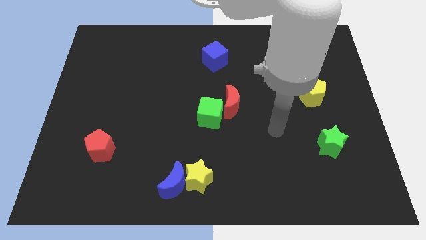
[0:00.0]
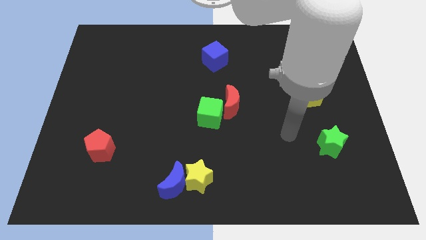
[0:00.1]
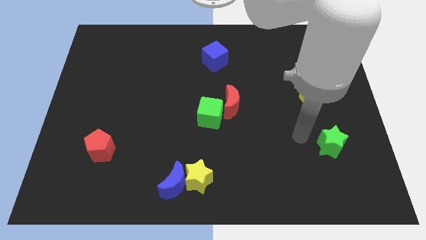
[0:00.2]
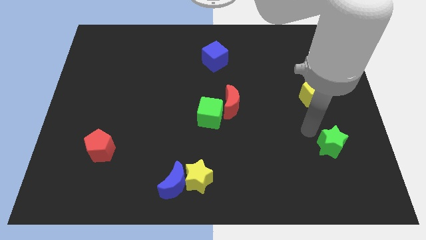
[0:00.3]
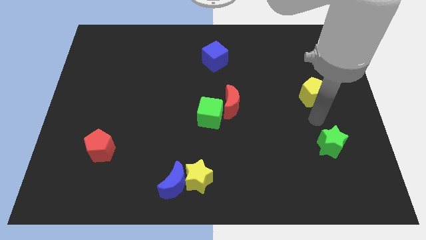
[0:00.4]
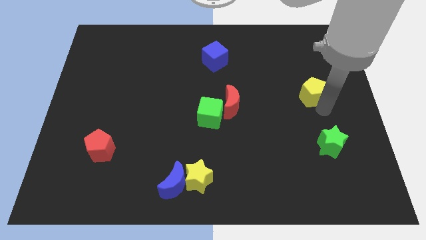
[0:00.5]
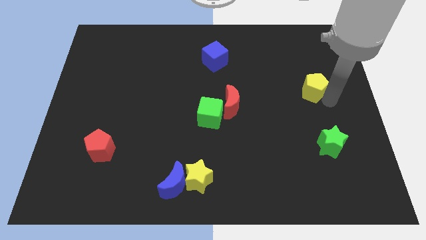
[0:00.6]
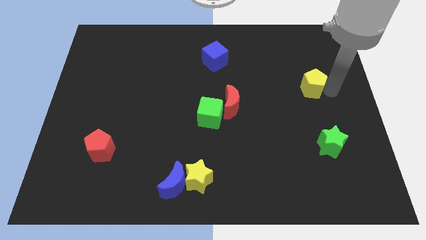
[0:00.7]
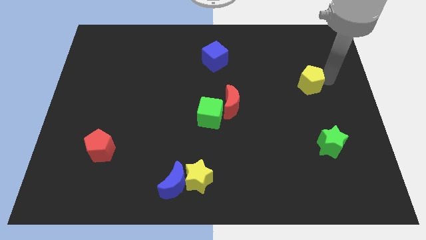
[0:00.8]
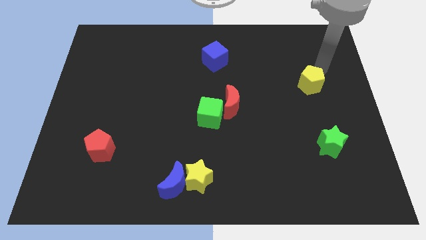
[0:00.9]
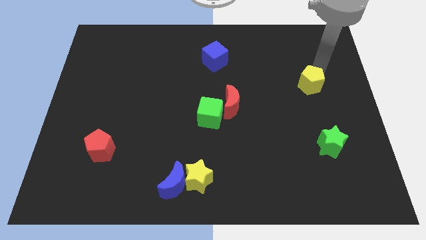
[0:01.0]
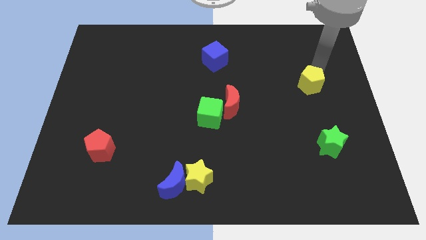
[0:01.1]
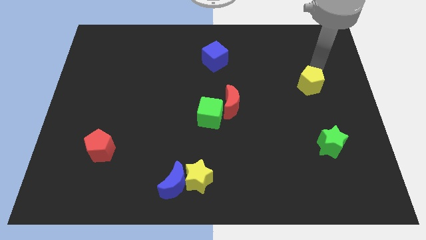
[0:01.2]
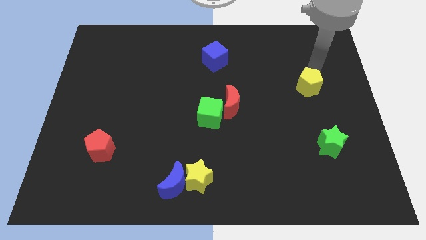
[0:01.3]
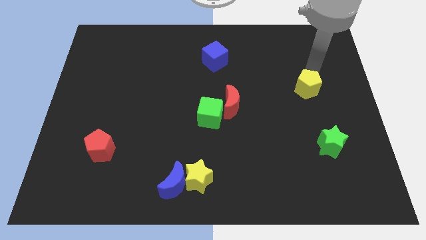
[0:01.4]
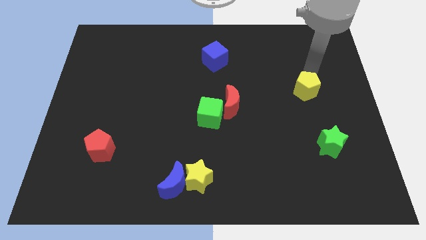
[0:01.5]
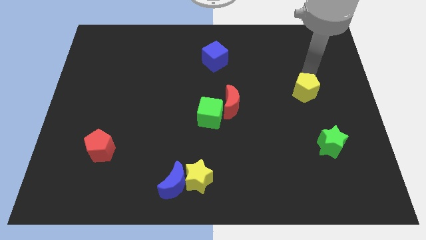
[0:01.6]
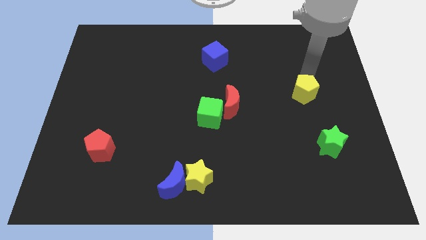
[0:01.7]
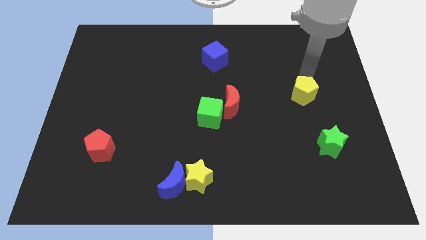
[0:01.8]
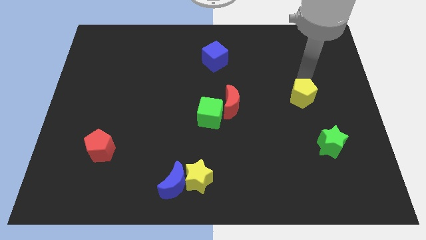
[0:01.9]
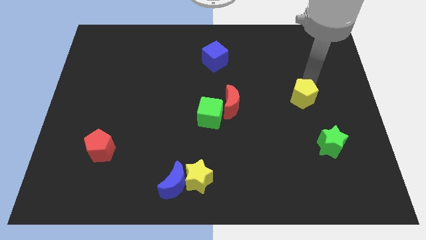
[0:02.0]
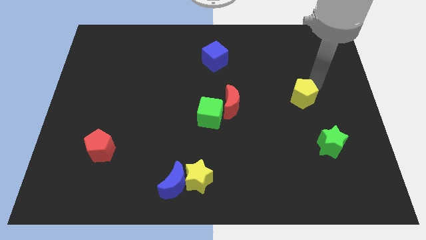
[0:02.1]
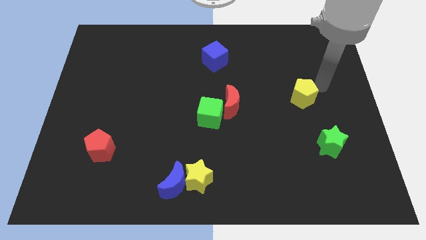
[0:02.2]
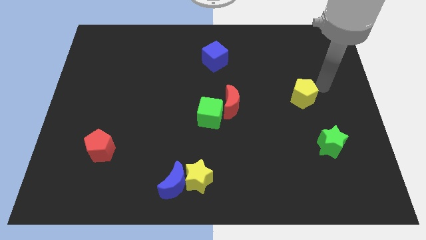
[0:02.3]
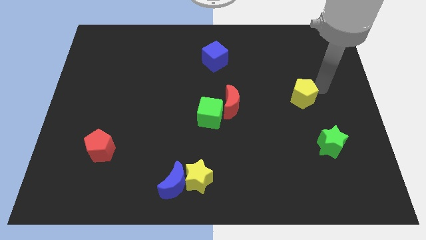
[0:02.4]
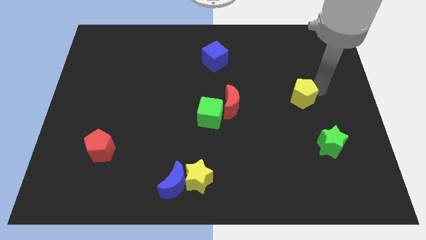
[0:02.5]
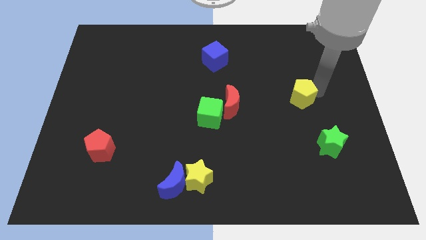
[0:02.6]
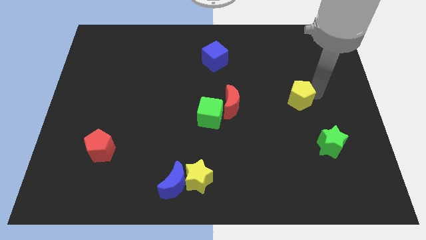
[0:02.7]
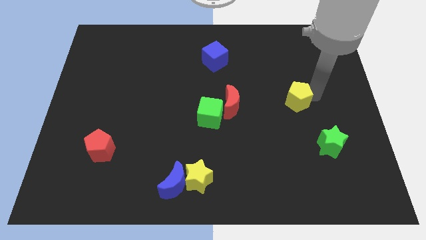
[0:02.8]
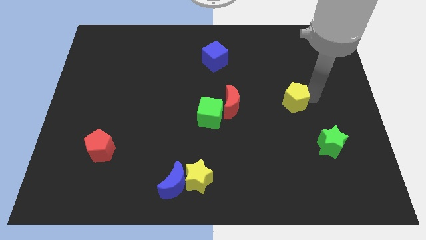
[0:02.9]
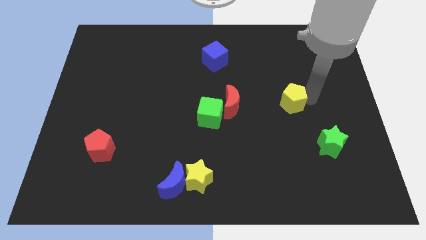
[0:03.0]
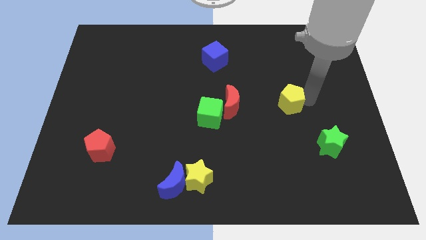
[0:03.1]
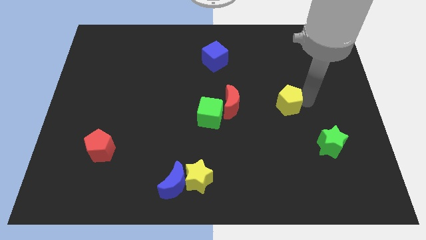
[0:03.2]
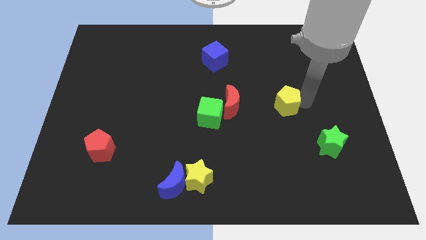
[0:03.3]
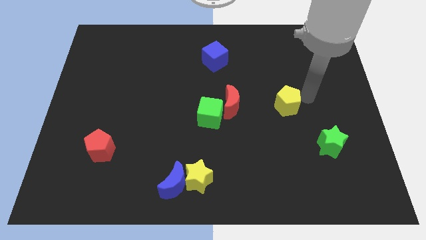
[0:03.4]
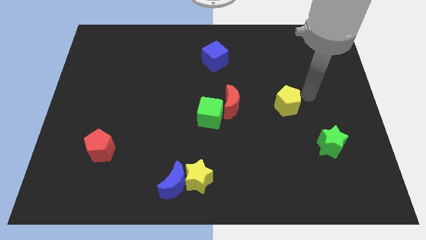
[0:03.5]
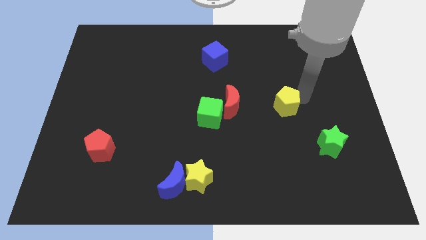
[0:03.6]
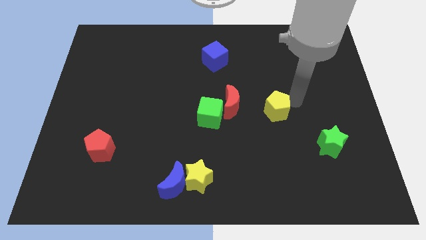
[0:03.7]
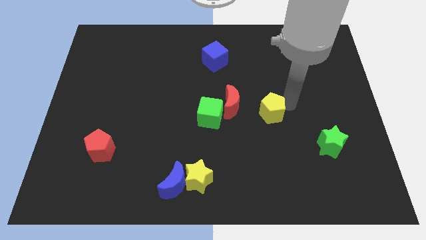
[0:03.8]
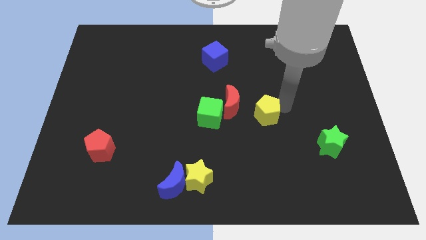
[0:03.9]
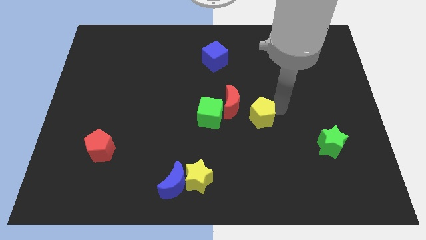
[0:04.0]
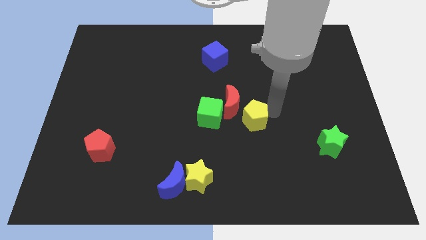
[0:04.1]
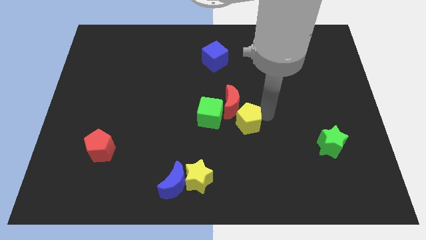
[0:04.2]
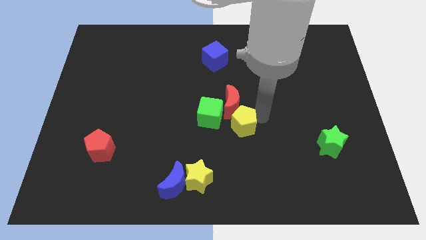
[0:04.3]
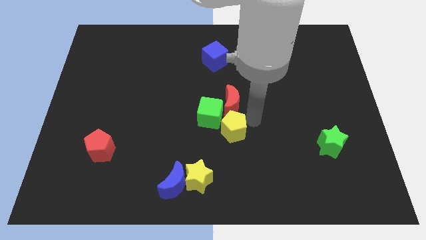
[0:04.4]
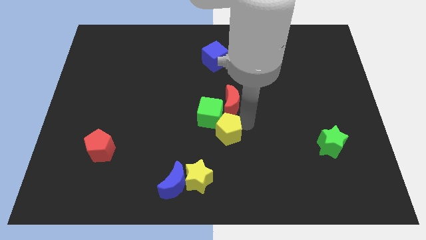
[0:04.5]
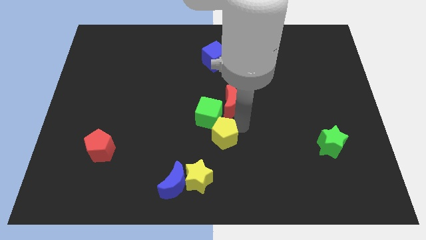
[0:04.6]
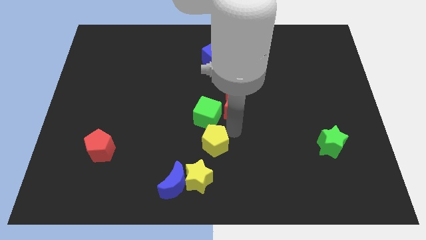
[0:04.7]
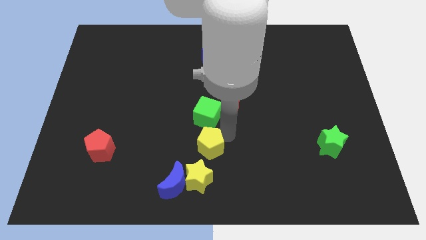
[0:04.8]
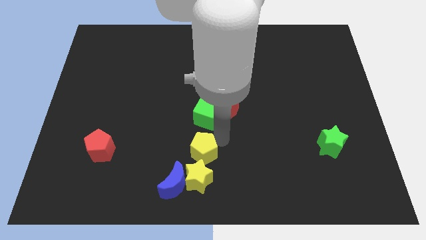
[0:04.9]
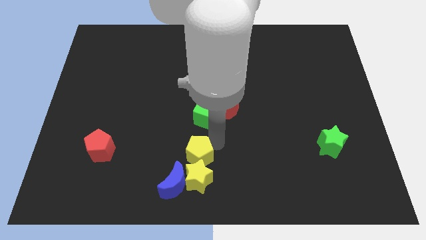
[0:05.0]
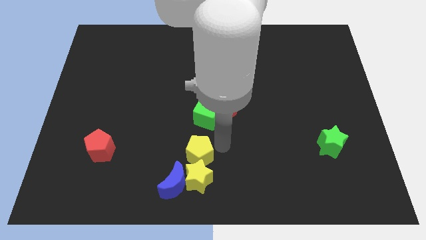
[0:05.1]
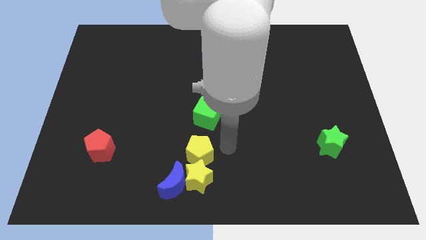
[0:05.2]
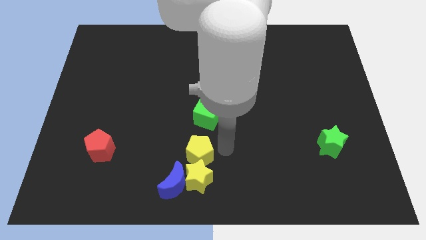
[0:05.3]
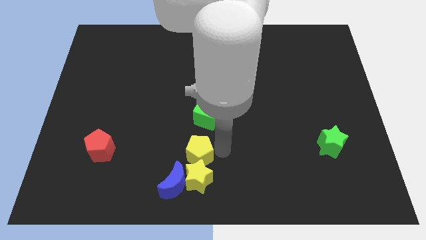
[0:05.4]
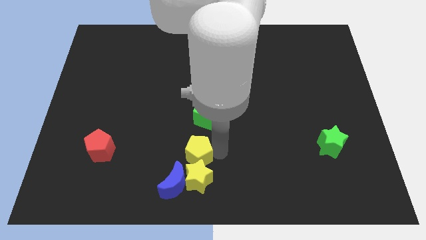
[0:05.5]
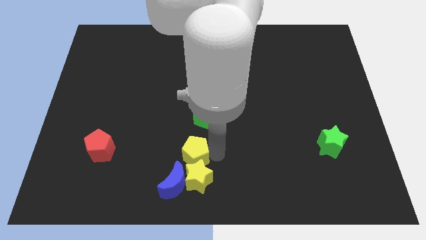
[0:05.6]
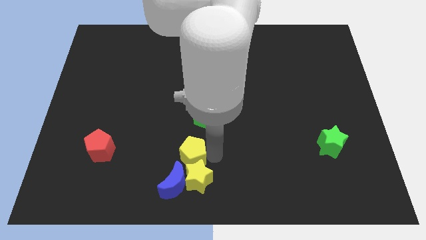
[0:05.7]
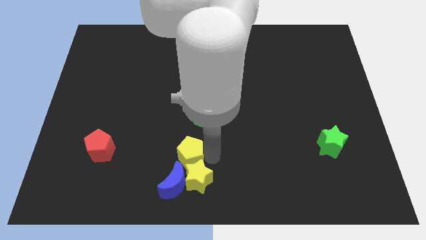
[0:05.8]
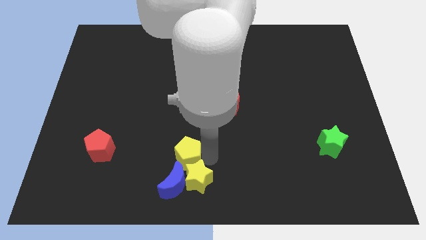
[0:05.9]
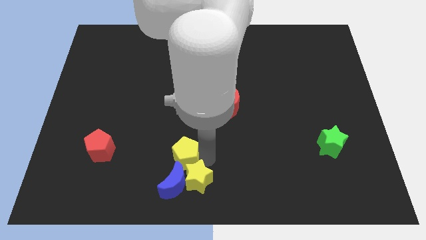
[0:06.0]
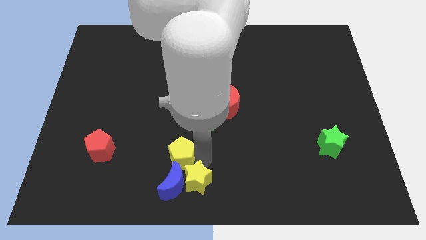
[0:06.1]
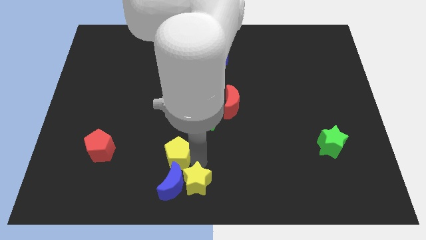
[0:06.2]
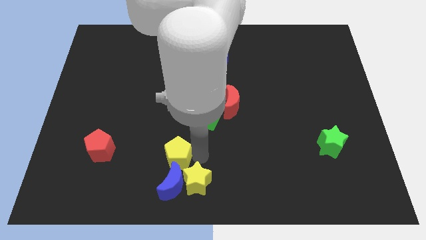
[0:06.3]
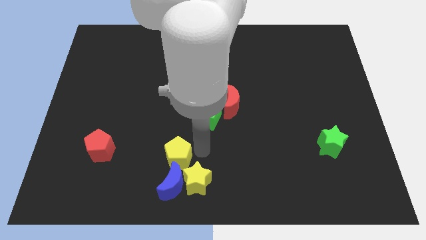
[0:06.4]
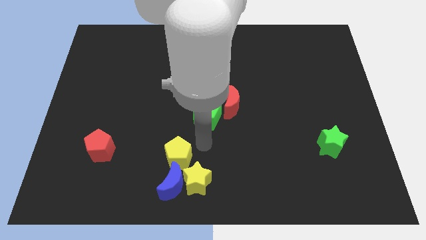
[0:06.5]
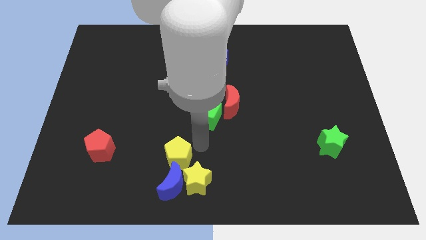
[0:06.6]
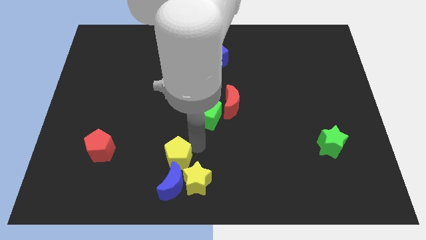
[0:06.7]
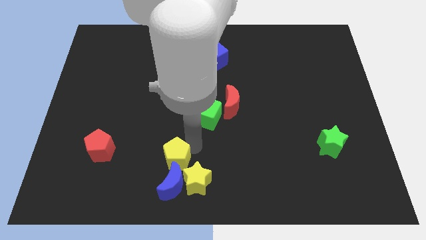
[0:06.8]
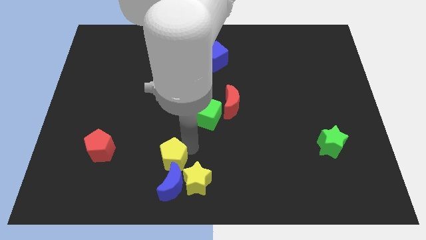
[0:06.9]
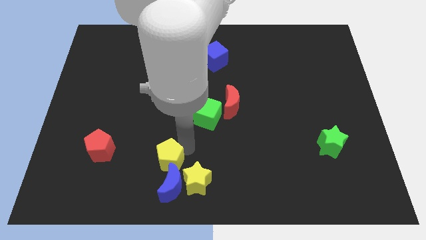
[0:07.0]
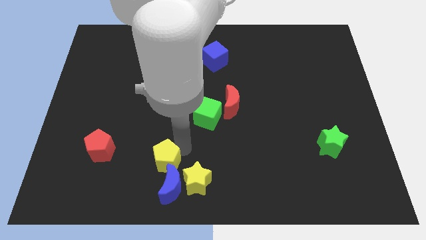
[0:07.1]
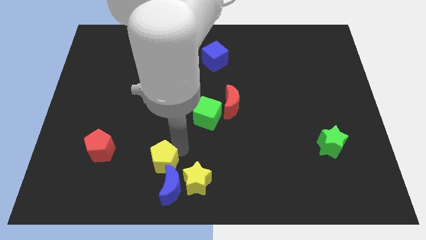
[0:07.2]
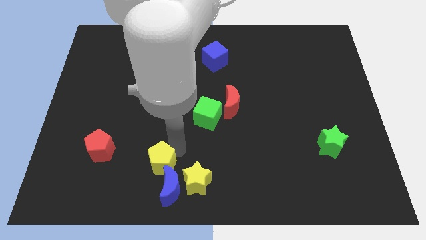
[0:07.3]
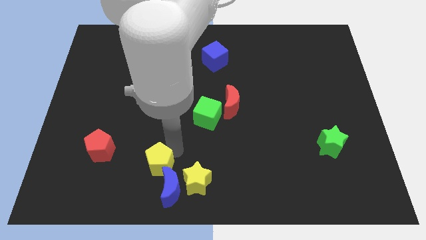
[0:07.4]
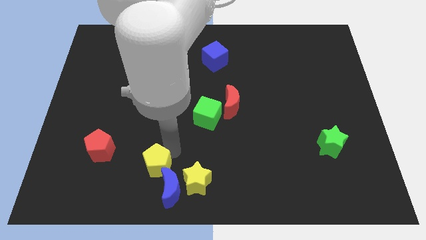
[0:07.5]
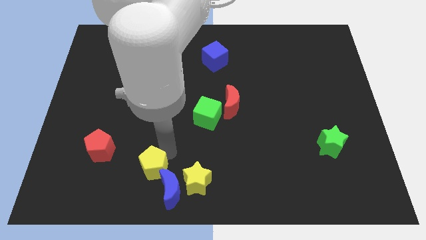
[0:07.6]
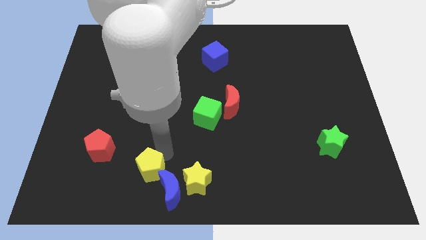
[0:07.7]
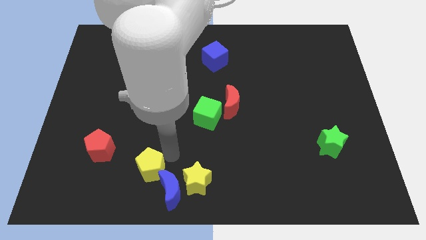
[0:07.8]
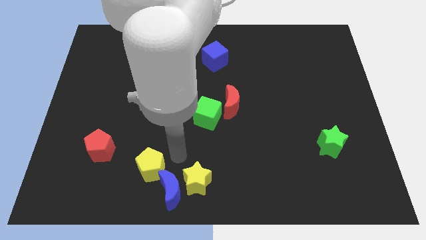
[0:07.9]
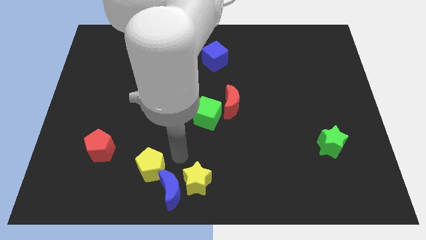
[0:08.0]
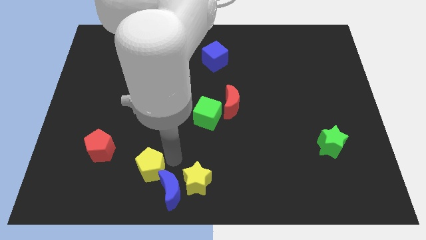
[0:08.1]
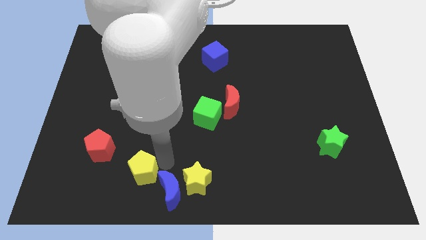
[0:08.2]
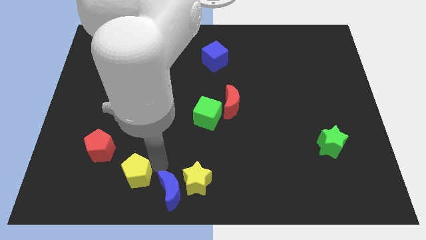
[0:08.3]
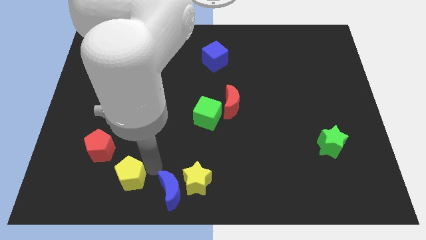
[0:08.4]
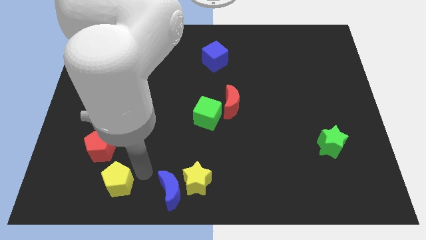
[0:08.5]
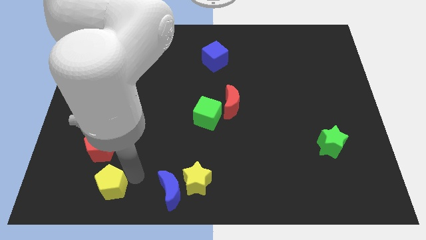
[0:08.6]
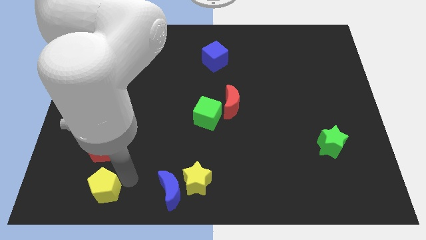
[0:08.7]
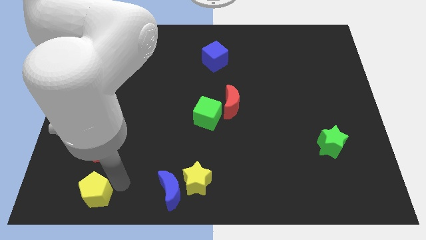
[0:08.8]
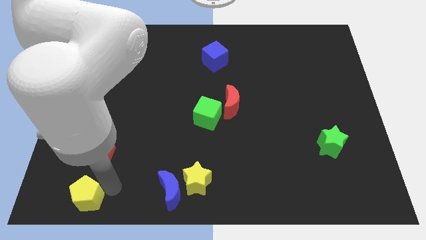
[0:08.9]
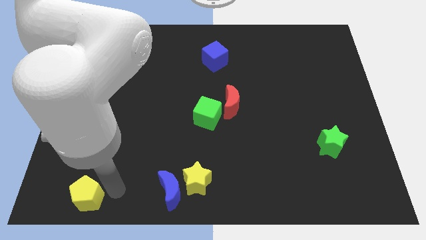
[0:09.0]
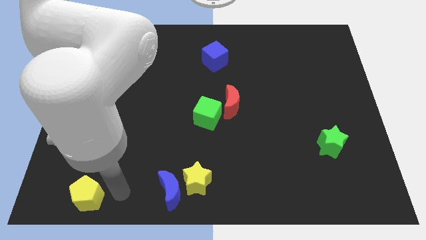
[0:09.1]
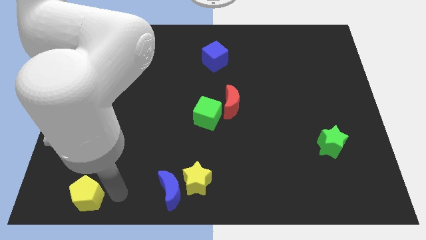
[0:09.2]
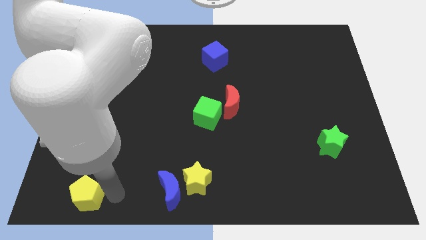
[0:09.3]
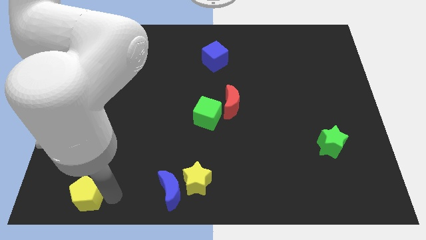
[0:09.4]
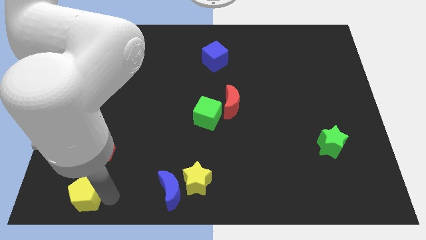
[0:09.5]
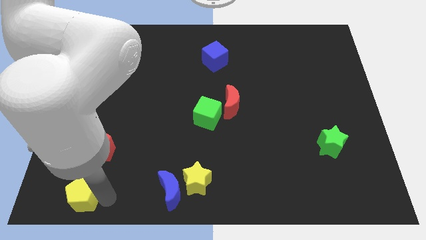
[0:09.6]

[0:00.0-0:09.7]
move the yellow pentagon to the bottom left
